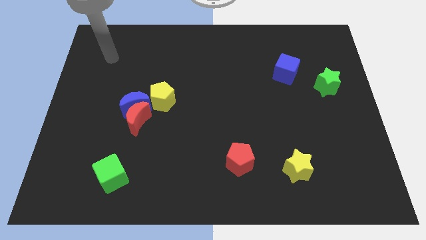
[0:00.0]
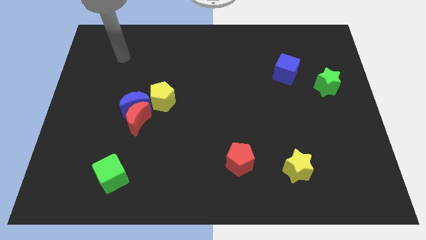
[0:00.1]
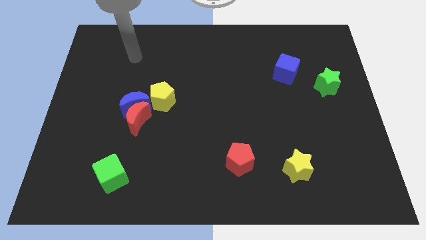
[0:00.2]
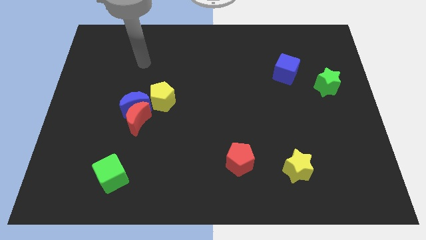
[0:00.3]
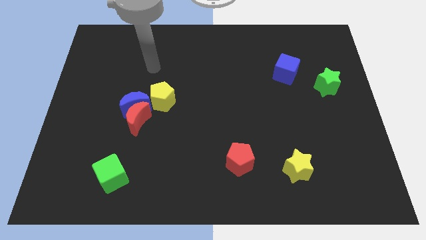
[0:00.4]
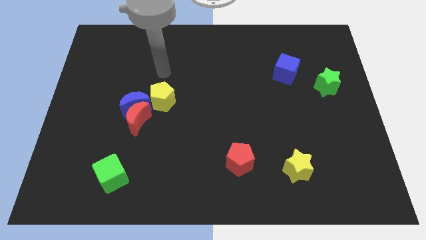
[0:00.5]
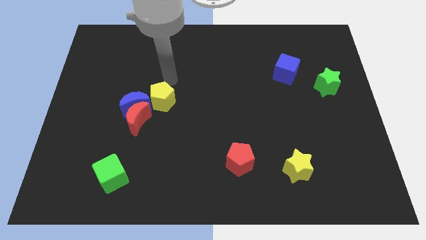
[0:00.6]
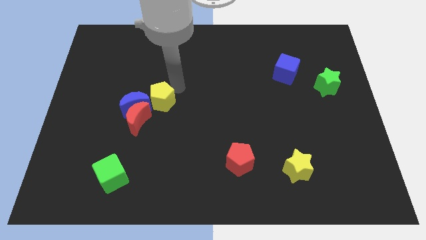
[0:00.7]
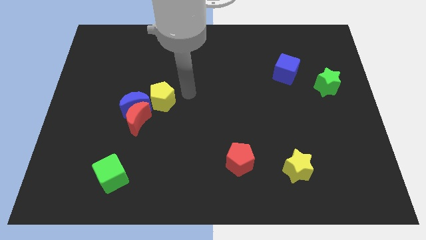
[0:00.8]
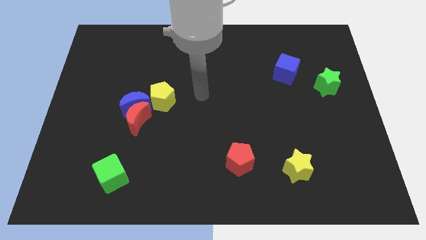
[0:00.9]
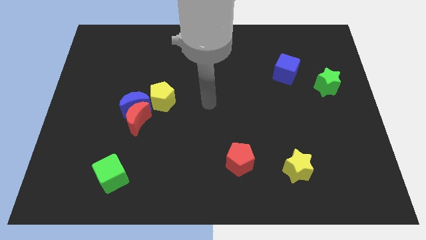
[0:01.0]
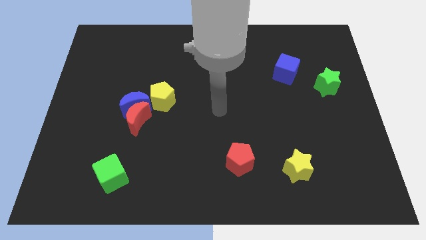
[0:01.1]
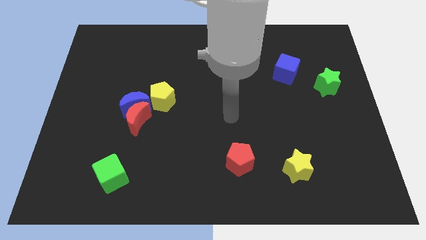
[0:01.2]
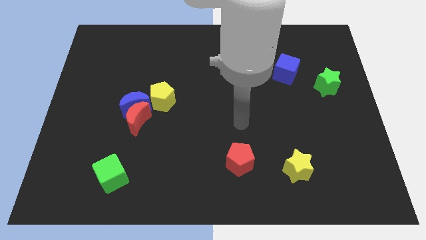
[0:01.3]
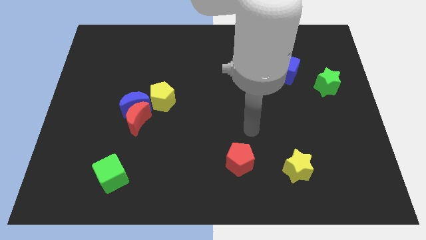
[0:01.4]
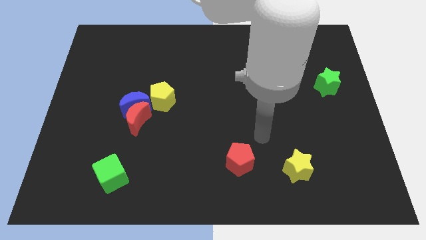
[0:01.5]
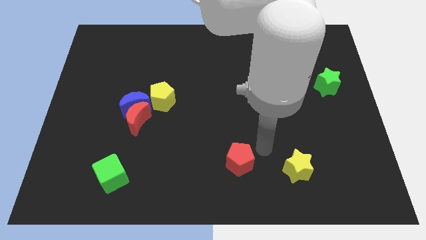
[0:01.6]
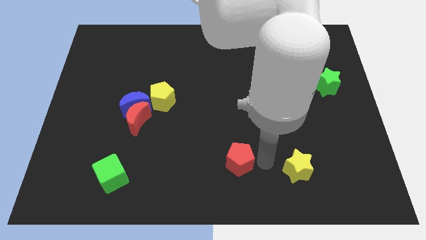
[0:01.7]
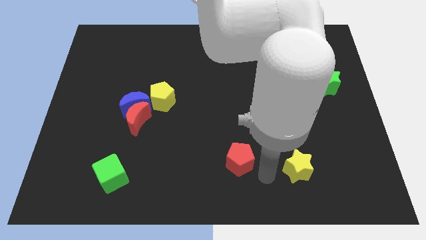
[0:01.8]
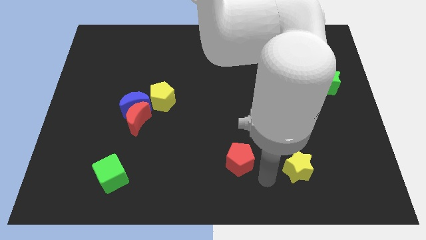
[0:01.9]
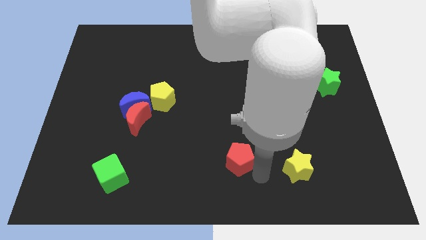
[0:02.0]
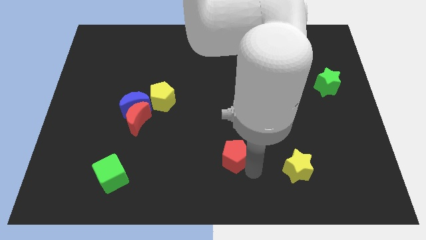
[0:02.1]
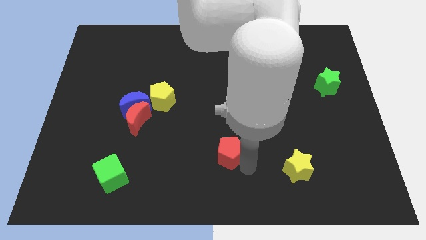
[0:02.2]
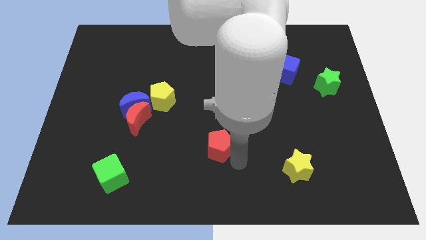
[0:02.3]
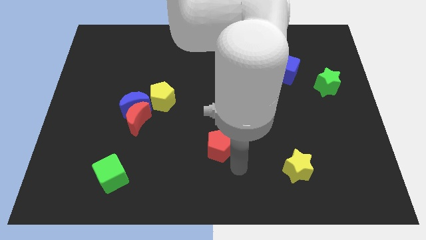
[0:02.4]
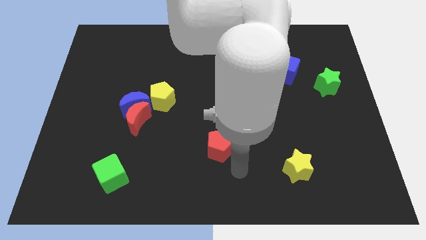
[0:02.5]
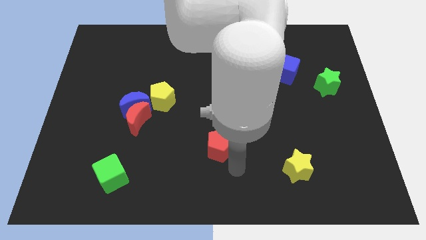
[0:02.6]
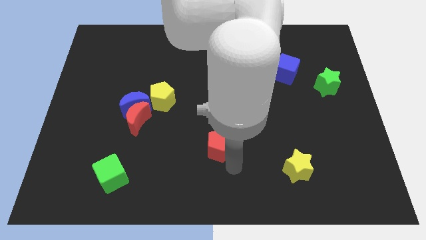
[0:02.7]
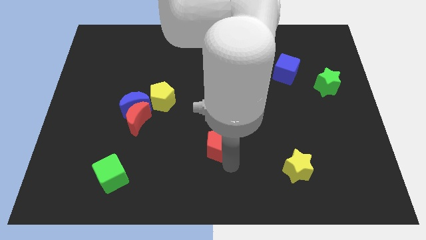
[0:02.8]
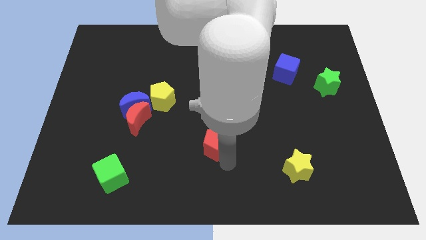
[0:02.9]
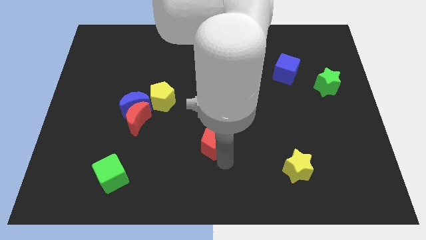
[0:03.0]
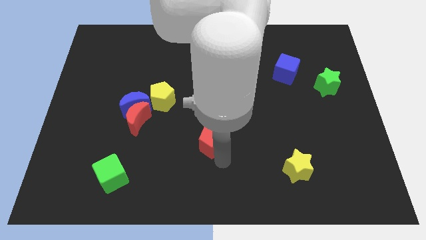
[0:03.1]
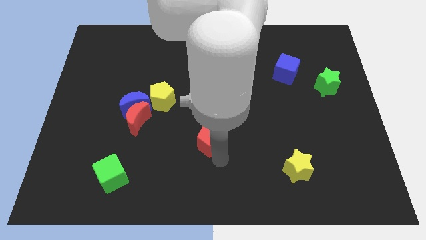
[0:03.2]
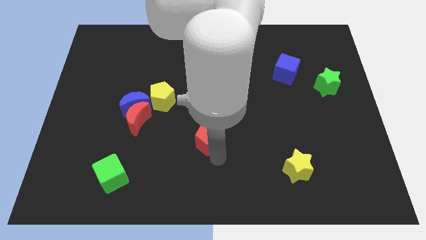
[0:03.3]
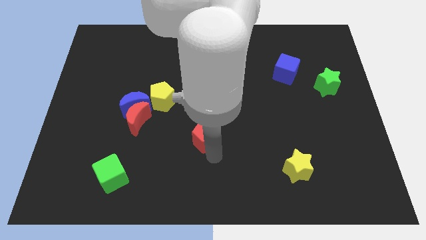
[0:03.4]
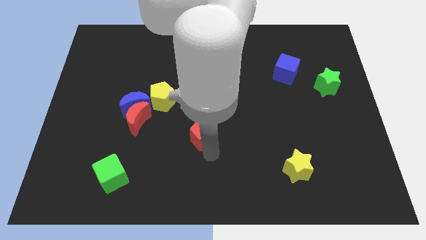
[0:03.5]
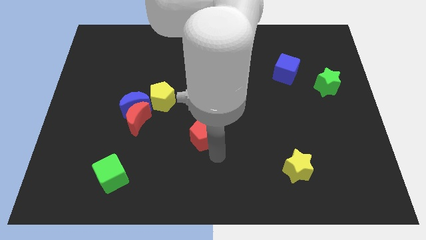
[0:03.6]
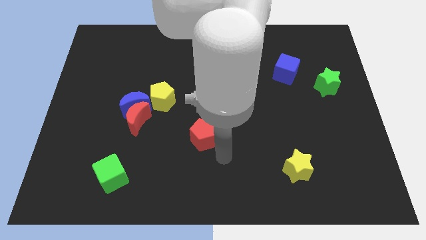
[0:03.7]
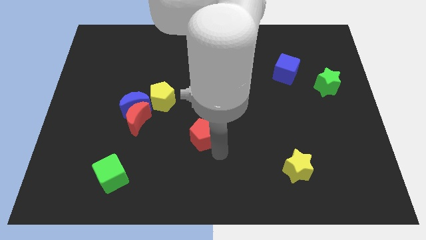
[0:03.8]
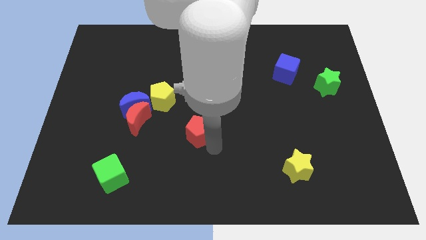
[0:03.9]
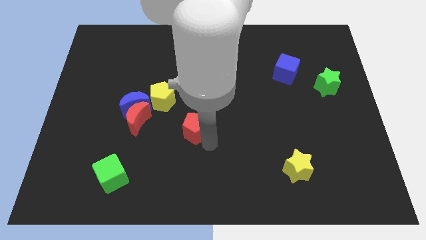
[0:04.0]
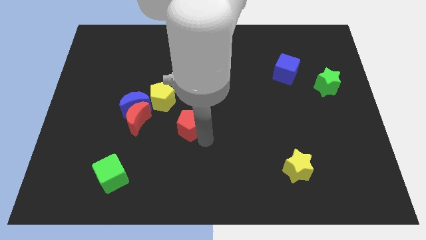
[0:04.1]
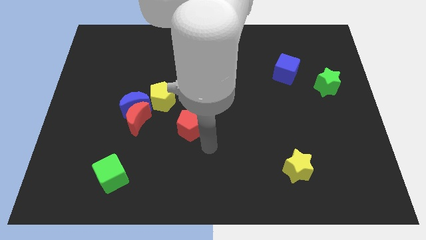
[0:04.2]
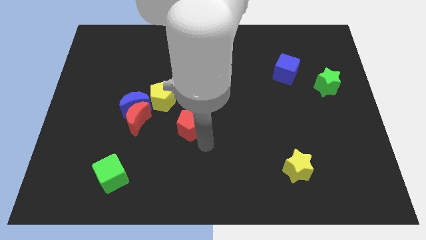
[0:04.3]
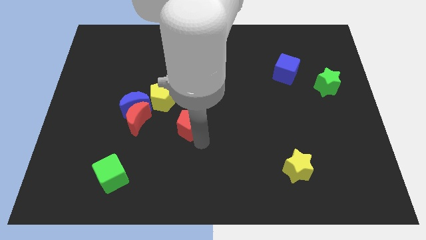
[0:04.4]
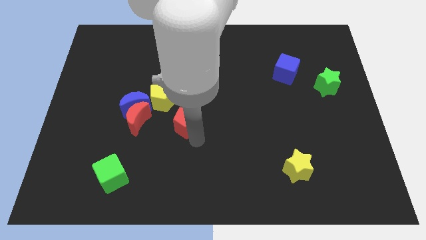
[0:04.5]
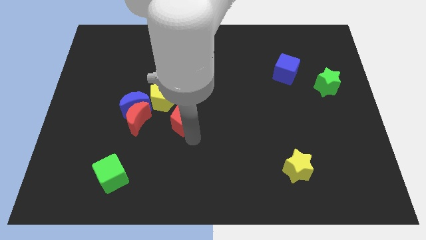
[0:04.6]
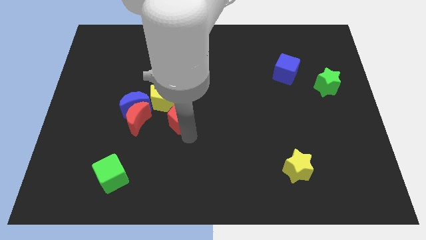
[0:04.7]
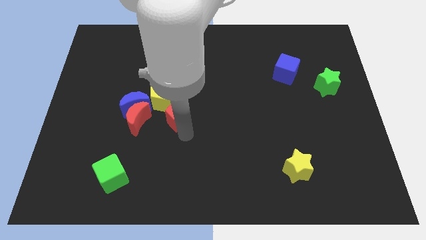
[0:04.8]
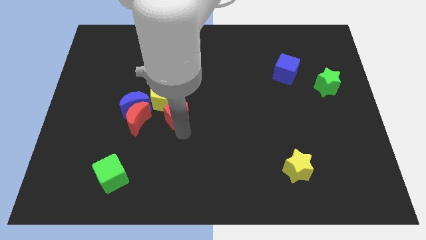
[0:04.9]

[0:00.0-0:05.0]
put the red pentagon next to the yellow pentagon

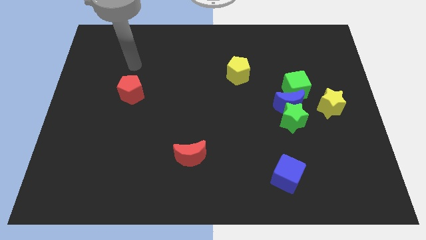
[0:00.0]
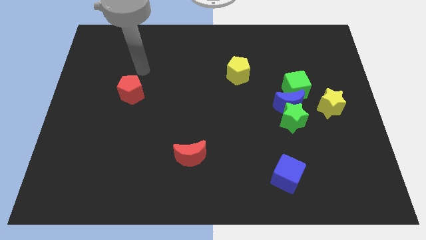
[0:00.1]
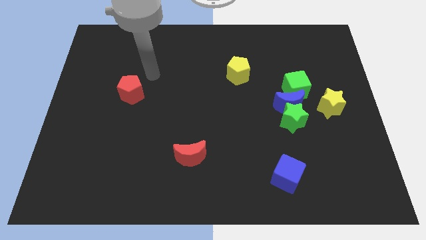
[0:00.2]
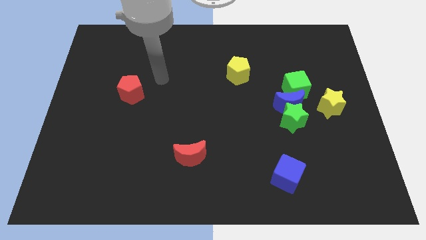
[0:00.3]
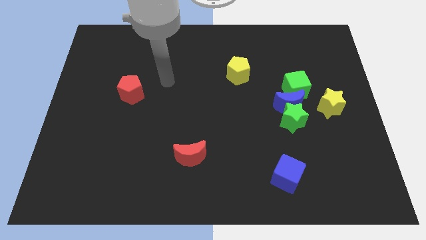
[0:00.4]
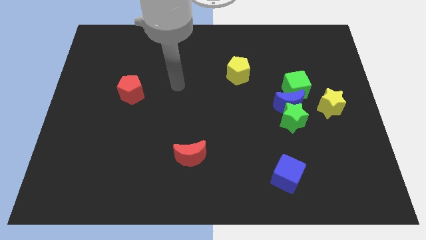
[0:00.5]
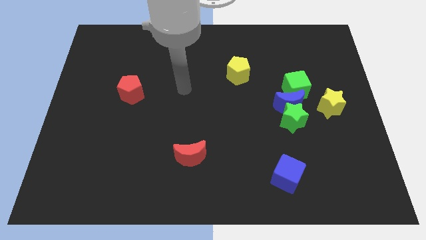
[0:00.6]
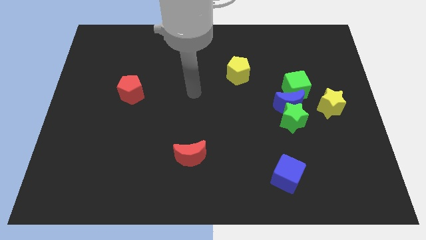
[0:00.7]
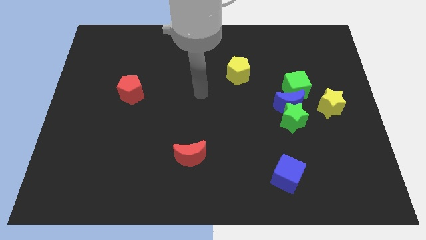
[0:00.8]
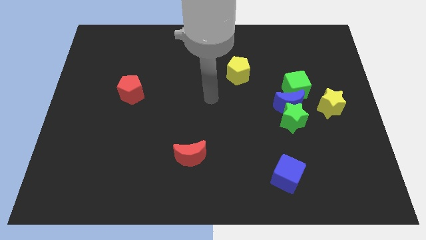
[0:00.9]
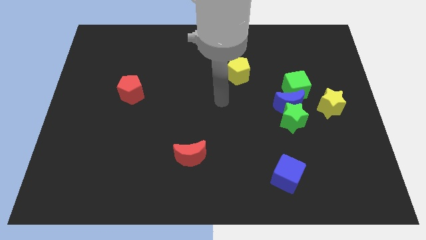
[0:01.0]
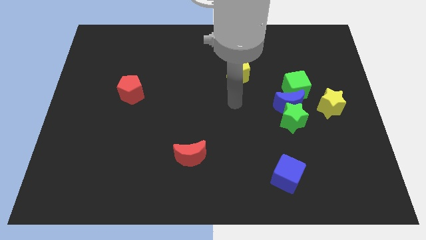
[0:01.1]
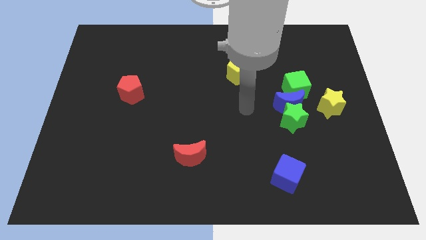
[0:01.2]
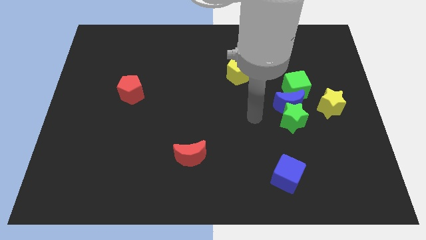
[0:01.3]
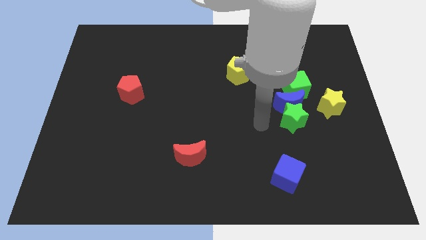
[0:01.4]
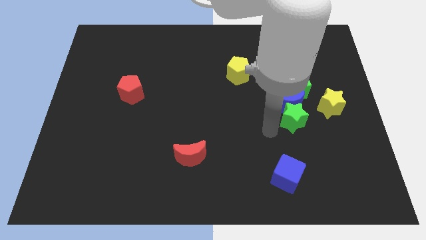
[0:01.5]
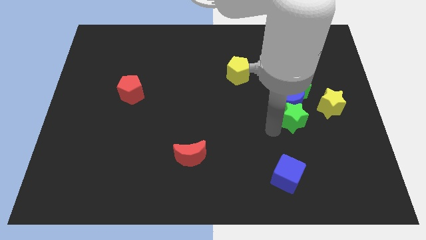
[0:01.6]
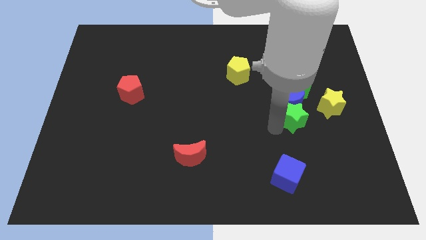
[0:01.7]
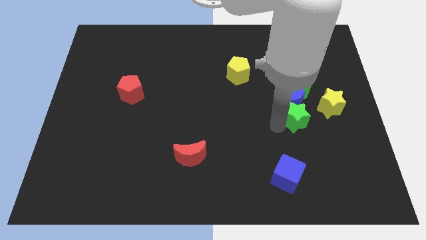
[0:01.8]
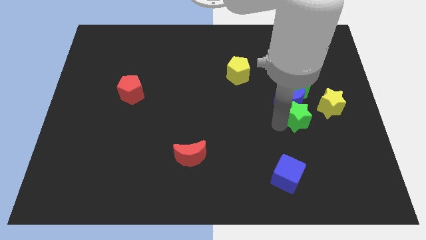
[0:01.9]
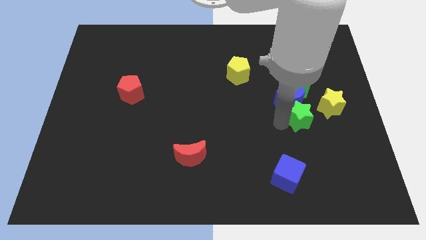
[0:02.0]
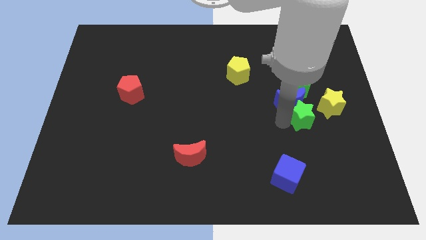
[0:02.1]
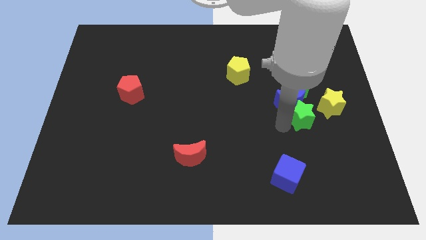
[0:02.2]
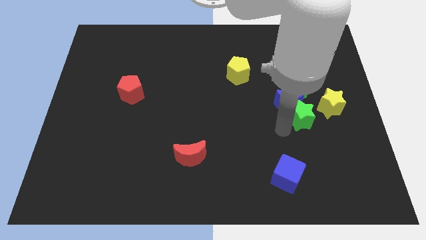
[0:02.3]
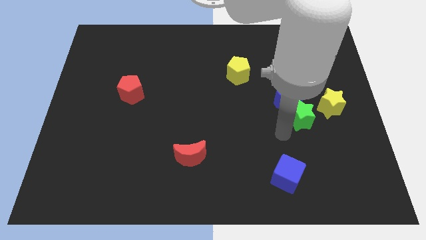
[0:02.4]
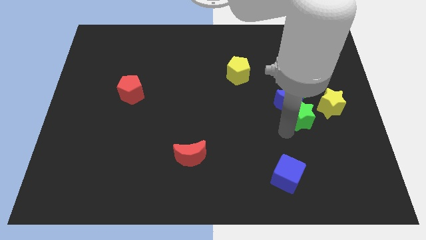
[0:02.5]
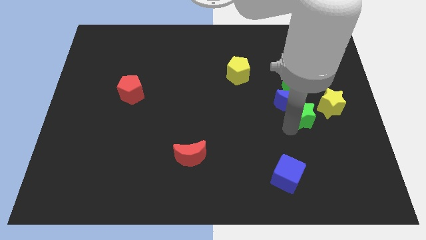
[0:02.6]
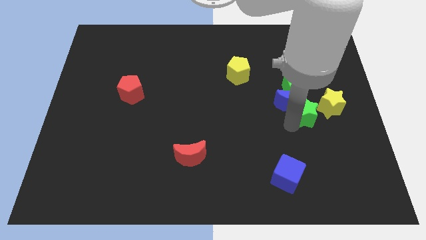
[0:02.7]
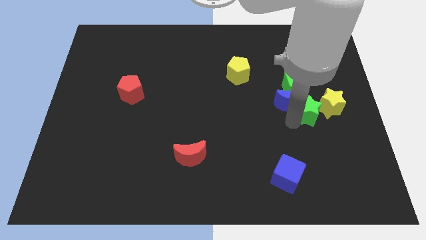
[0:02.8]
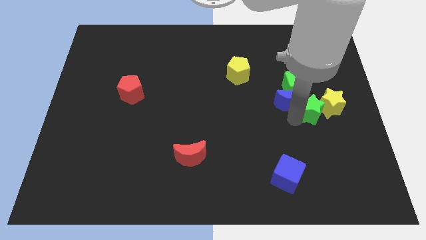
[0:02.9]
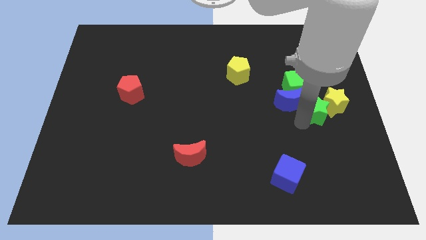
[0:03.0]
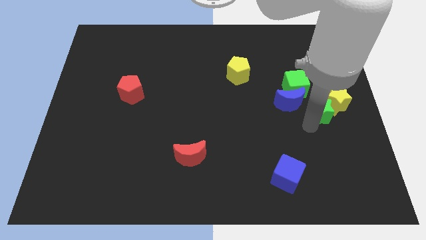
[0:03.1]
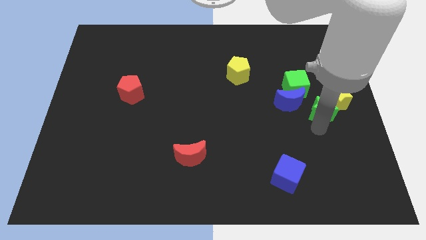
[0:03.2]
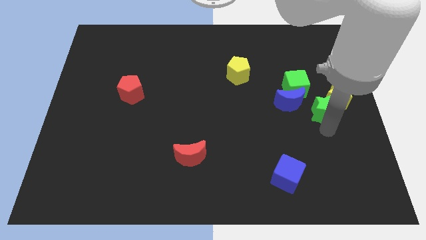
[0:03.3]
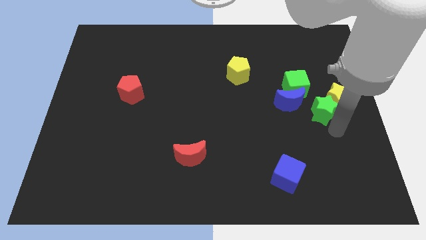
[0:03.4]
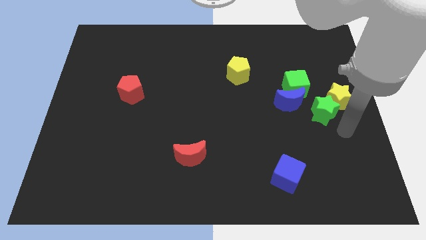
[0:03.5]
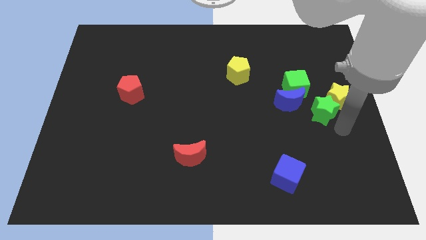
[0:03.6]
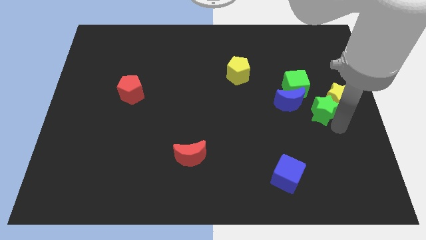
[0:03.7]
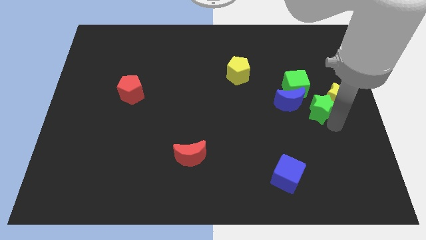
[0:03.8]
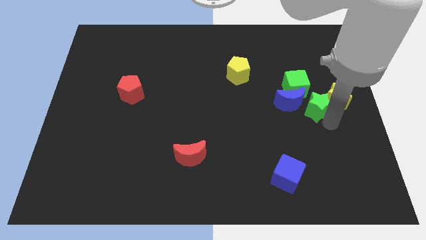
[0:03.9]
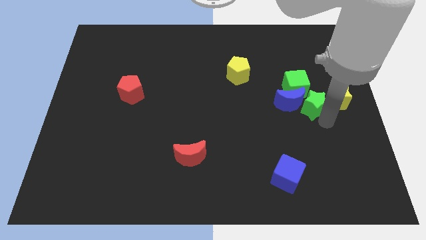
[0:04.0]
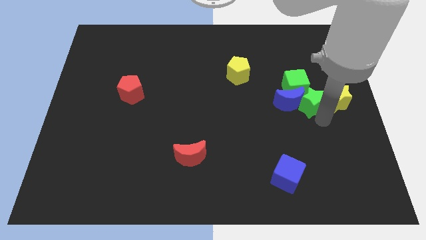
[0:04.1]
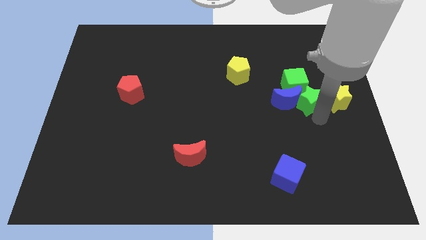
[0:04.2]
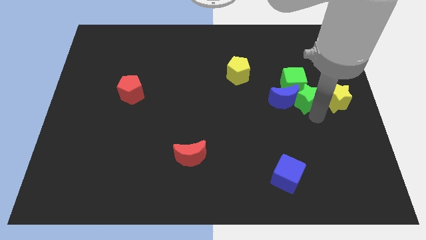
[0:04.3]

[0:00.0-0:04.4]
push the green star towards the green cube
